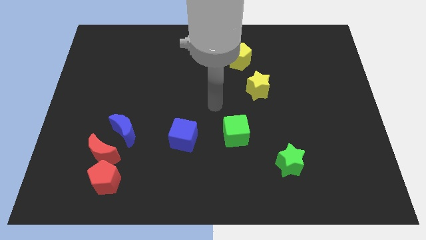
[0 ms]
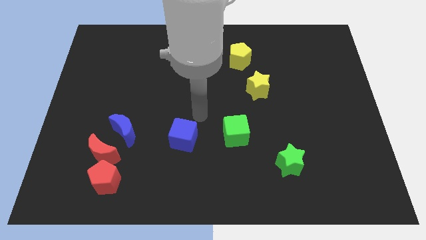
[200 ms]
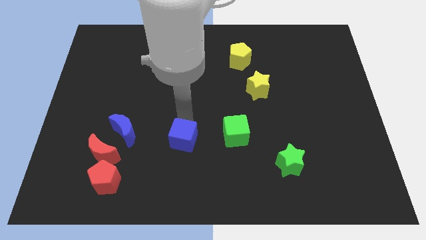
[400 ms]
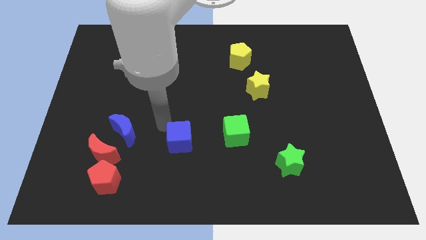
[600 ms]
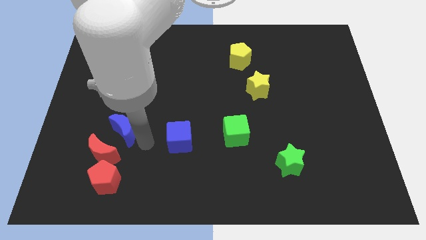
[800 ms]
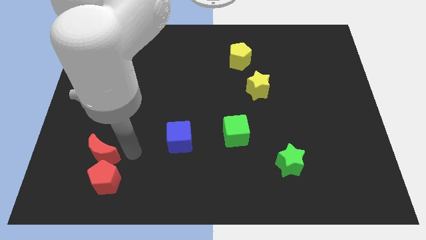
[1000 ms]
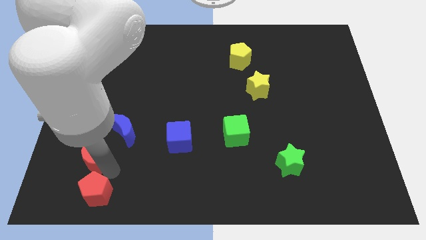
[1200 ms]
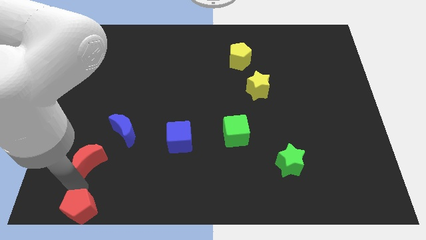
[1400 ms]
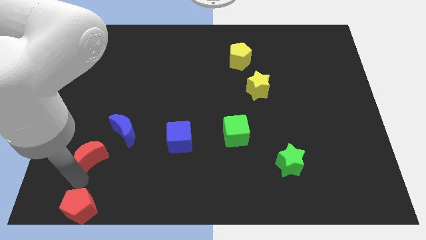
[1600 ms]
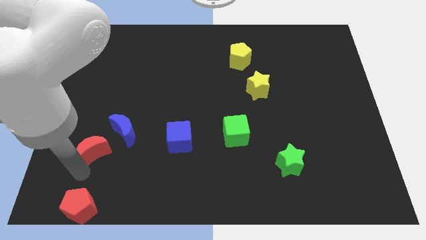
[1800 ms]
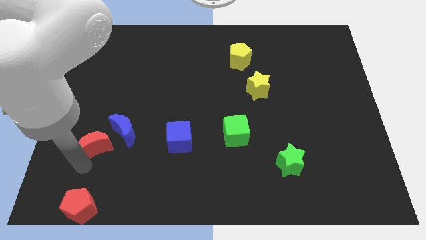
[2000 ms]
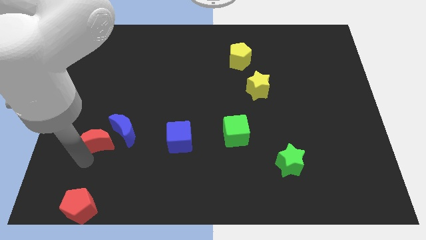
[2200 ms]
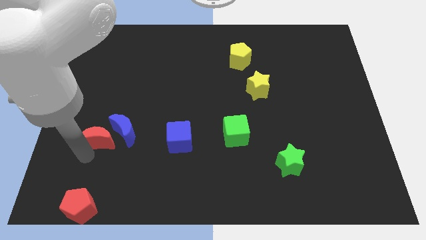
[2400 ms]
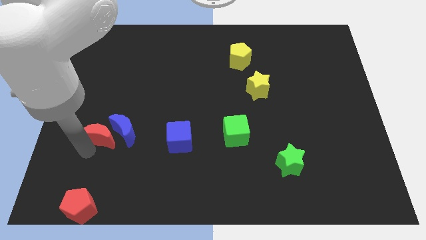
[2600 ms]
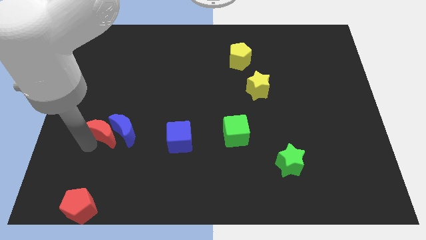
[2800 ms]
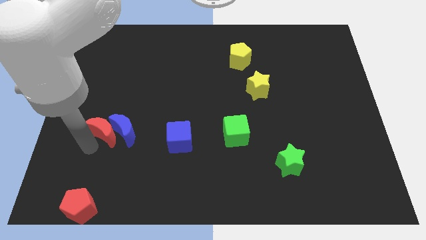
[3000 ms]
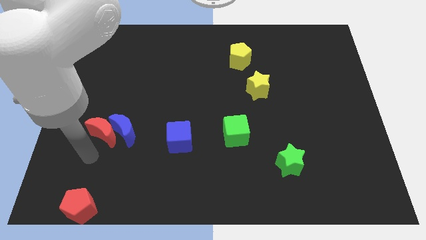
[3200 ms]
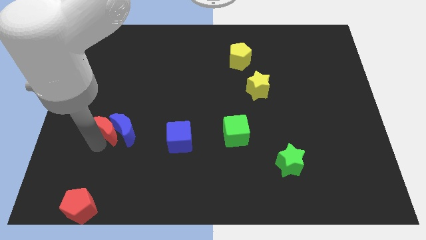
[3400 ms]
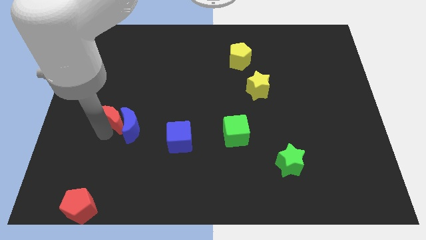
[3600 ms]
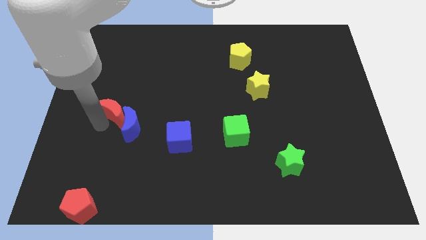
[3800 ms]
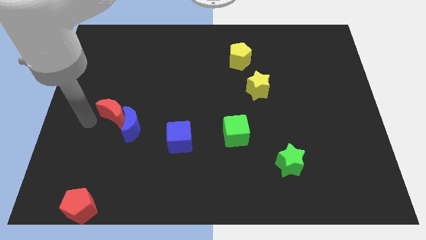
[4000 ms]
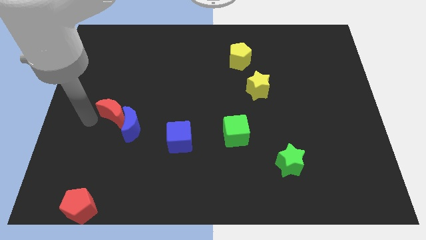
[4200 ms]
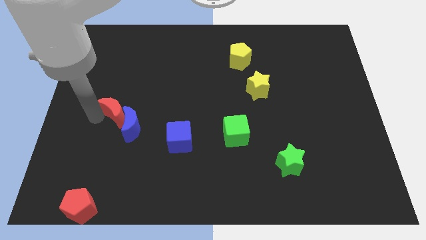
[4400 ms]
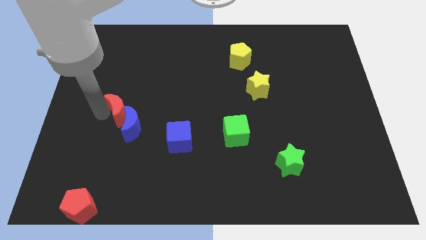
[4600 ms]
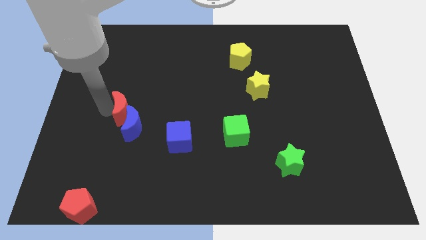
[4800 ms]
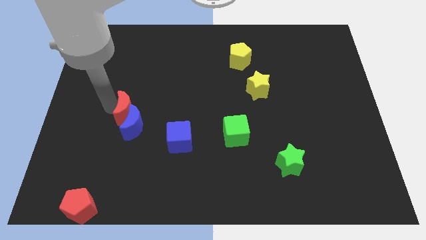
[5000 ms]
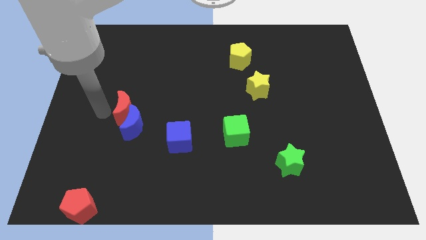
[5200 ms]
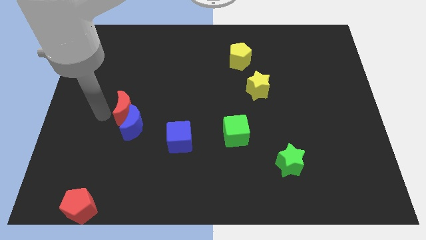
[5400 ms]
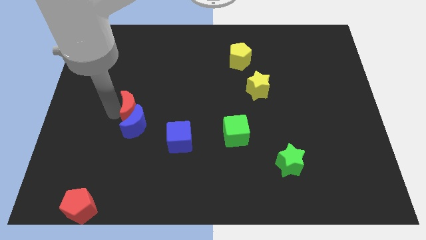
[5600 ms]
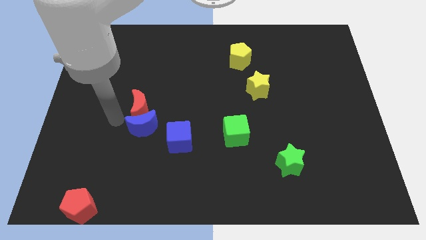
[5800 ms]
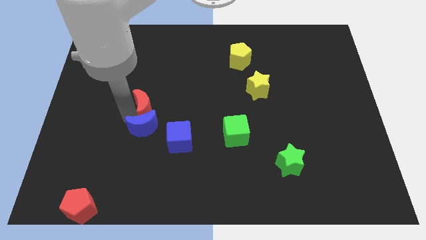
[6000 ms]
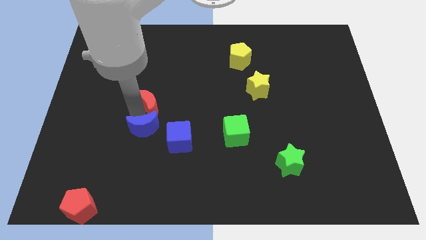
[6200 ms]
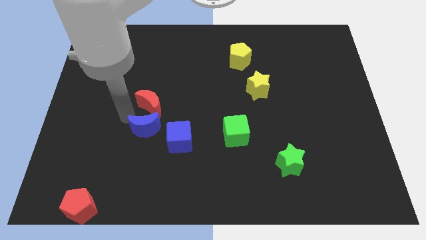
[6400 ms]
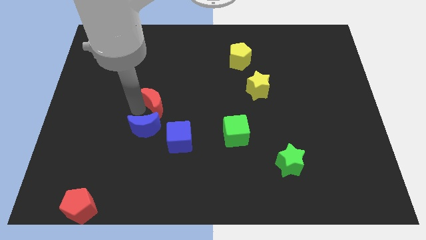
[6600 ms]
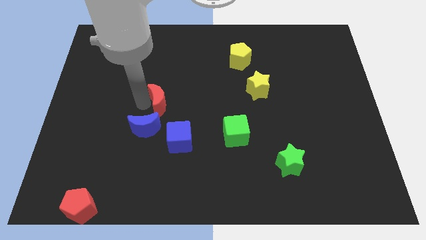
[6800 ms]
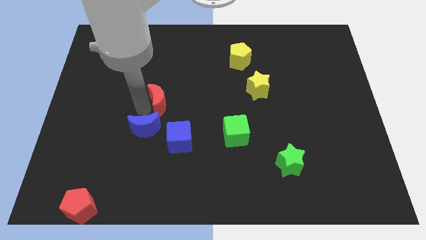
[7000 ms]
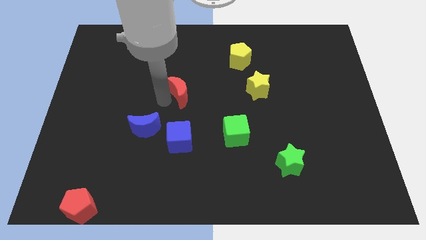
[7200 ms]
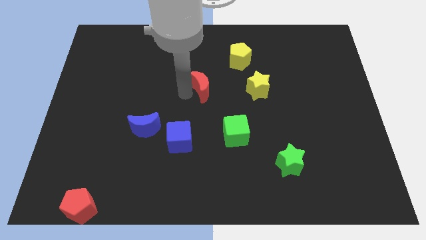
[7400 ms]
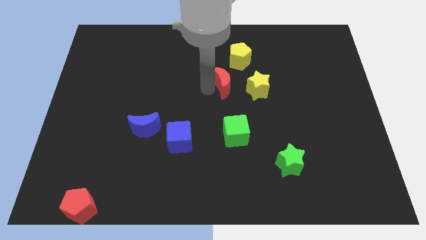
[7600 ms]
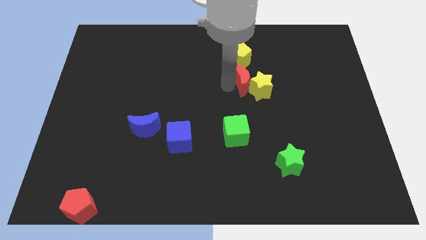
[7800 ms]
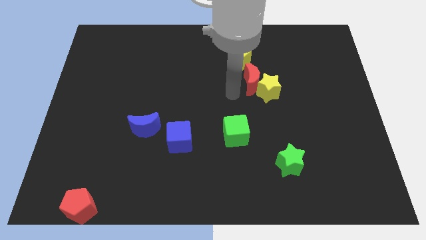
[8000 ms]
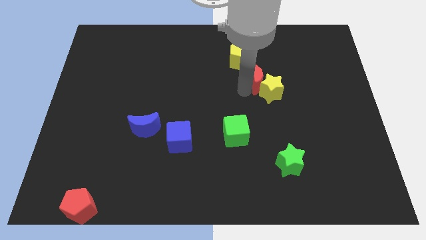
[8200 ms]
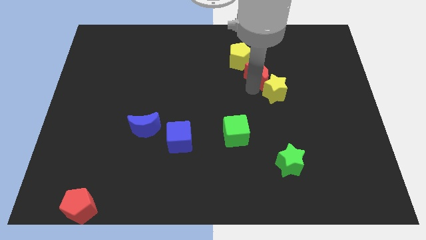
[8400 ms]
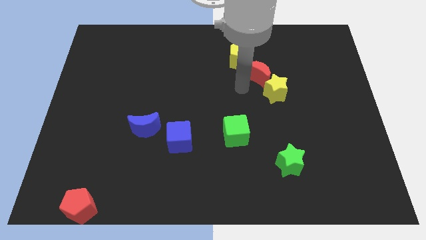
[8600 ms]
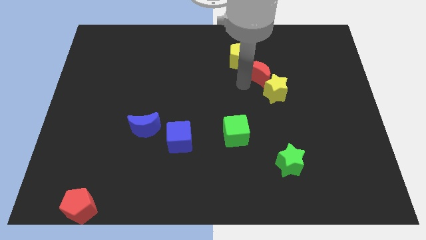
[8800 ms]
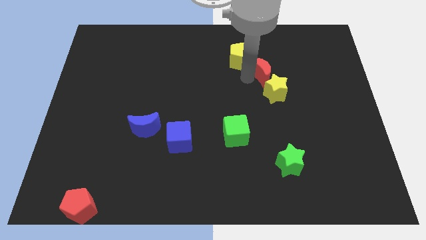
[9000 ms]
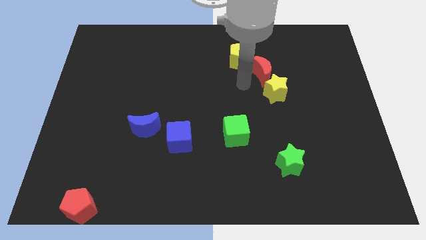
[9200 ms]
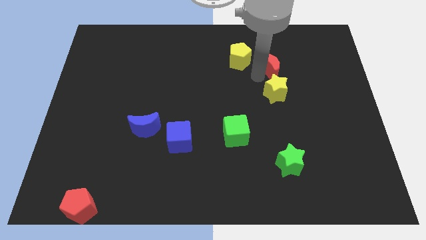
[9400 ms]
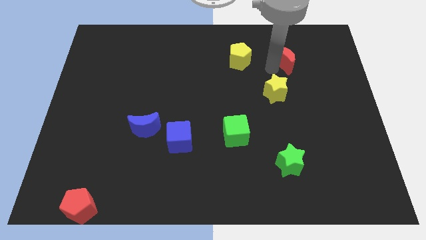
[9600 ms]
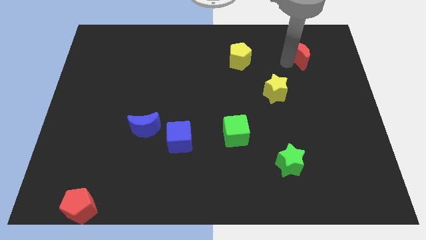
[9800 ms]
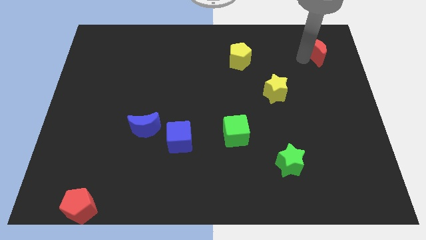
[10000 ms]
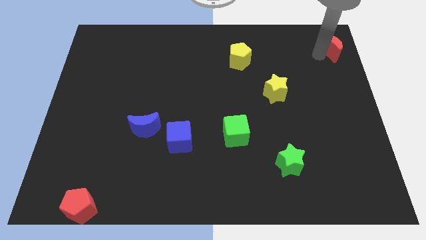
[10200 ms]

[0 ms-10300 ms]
put the red moon to the top right corner

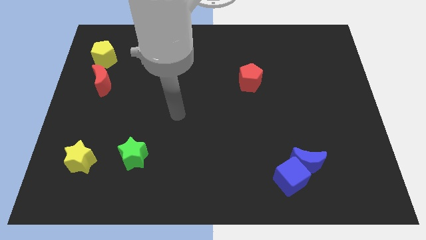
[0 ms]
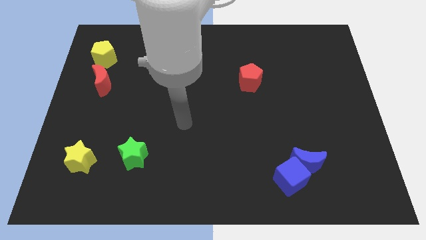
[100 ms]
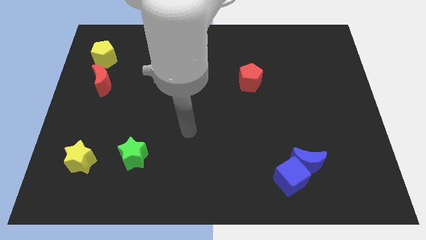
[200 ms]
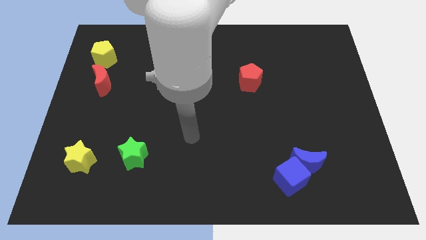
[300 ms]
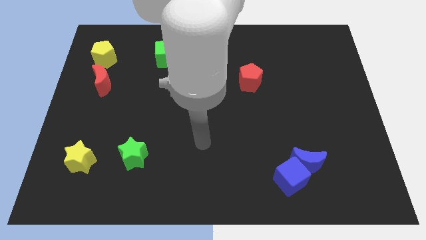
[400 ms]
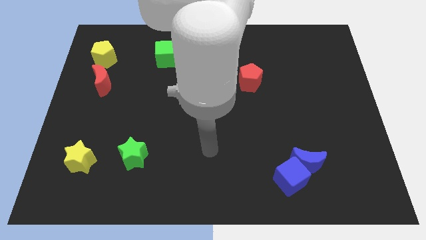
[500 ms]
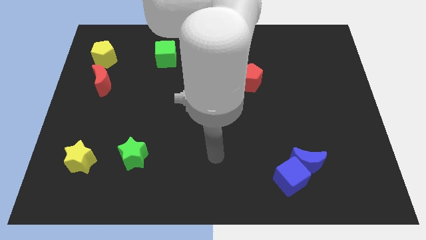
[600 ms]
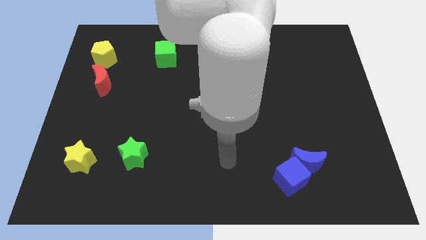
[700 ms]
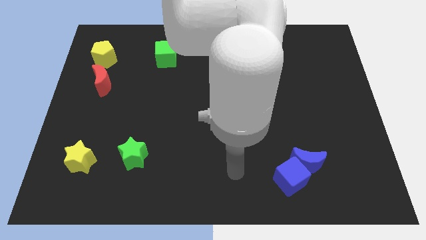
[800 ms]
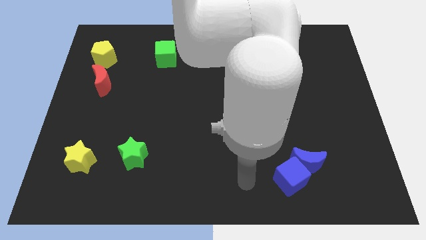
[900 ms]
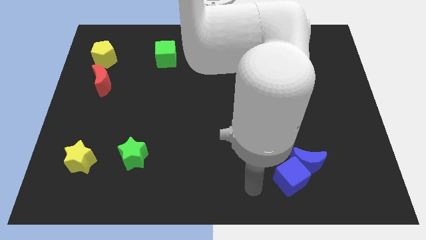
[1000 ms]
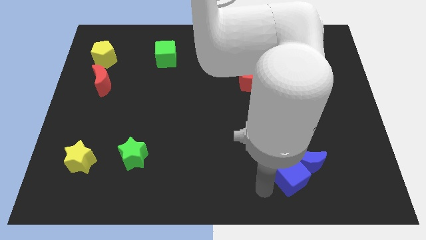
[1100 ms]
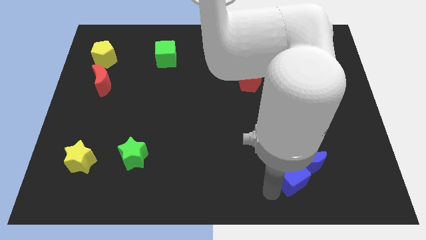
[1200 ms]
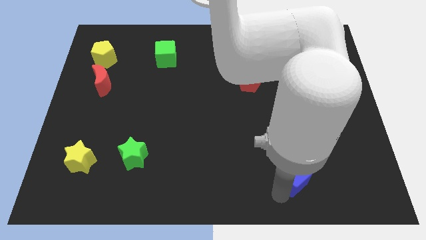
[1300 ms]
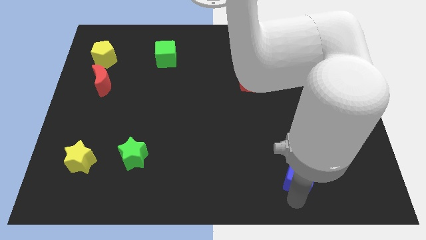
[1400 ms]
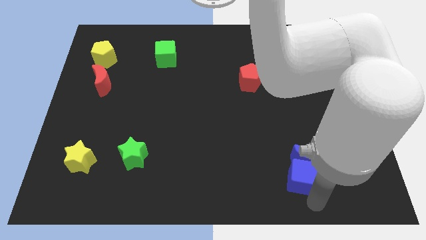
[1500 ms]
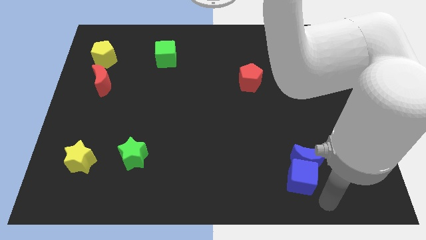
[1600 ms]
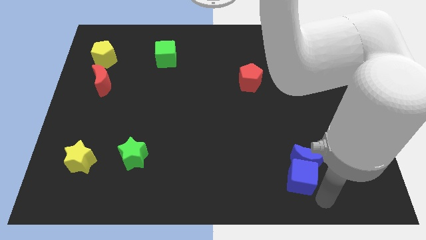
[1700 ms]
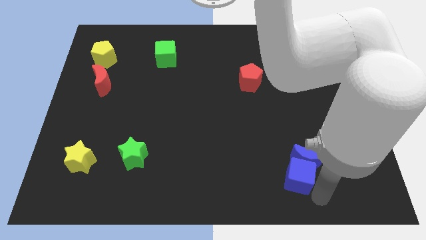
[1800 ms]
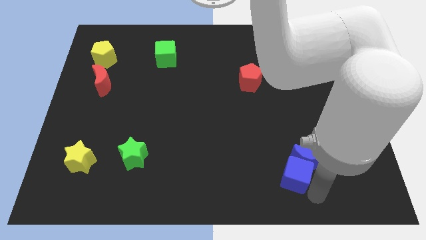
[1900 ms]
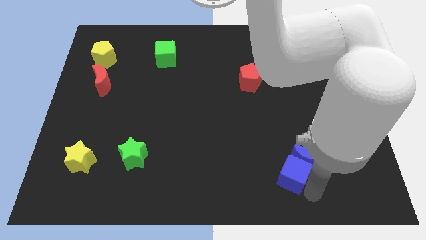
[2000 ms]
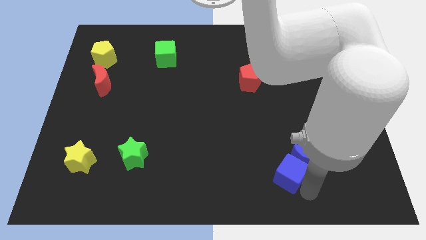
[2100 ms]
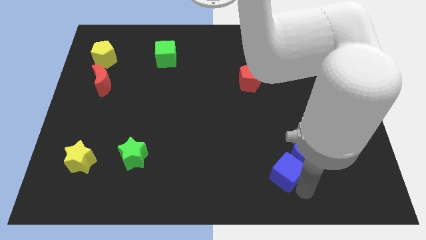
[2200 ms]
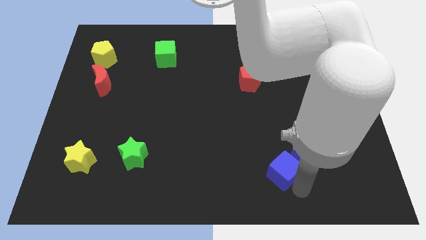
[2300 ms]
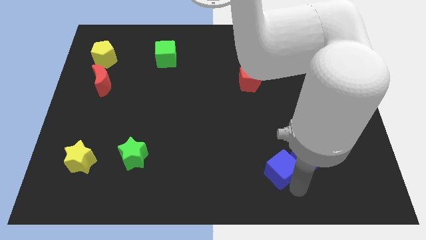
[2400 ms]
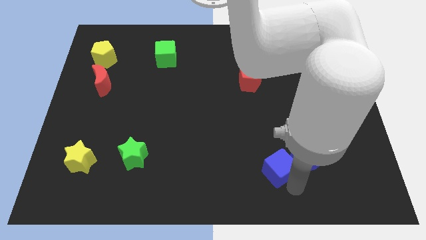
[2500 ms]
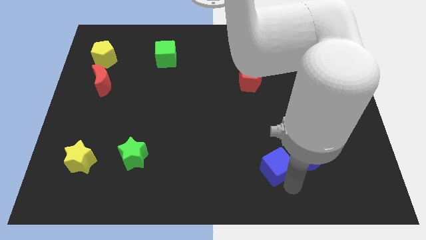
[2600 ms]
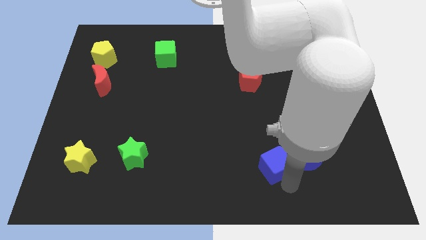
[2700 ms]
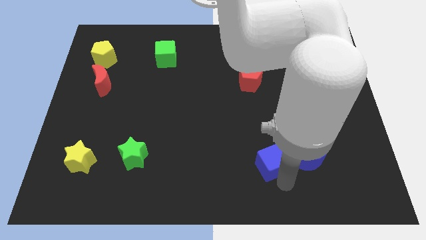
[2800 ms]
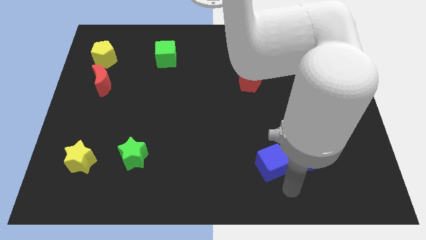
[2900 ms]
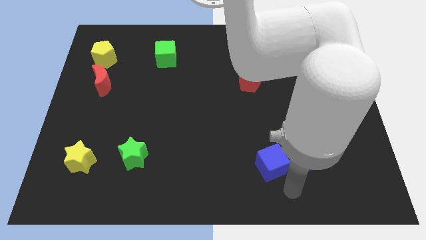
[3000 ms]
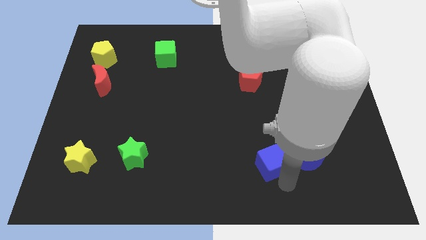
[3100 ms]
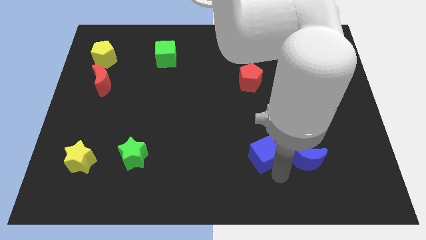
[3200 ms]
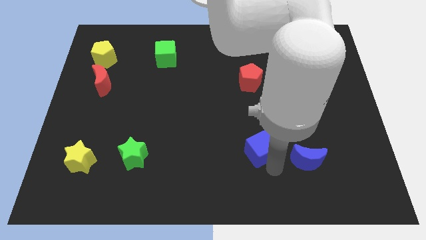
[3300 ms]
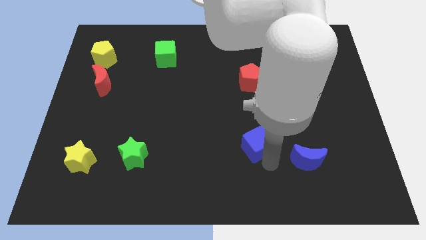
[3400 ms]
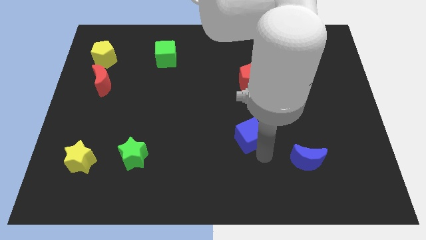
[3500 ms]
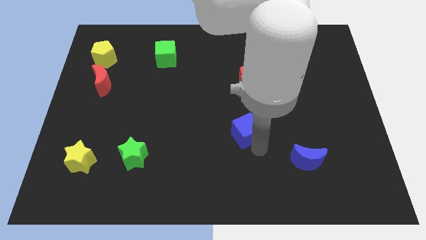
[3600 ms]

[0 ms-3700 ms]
push the blue cube to the center
